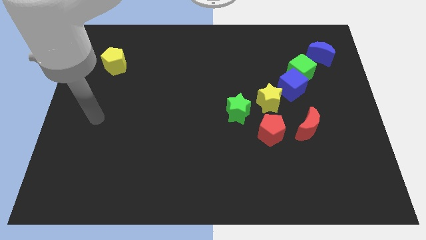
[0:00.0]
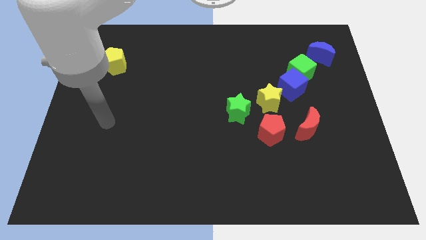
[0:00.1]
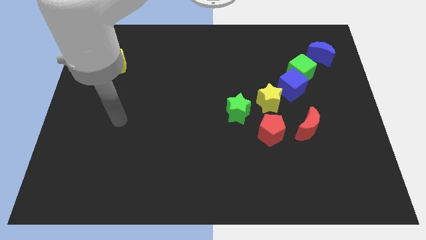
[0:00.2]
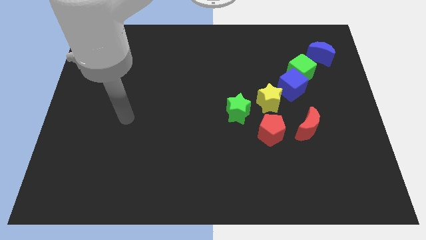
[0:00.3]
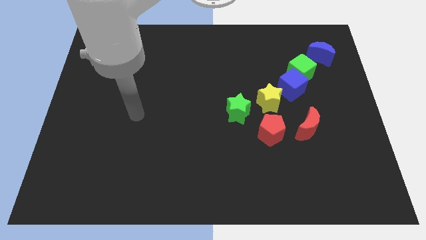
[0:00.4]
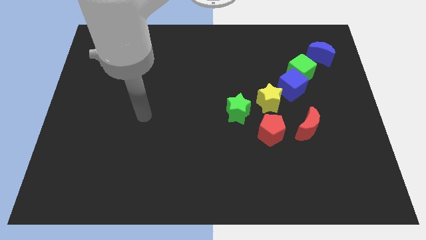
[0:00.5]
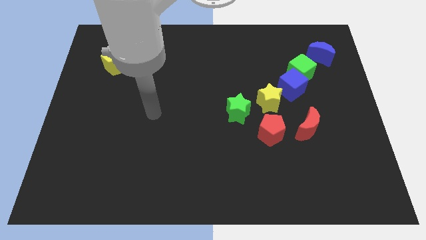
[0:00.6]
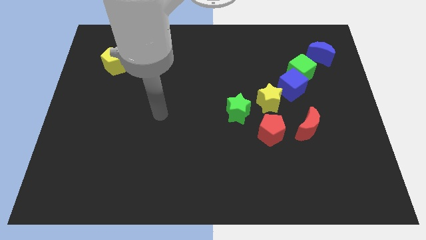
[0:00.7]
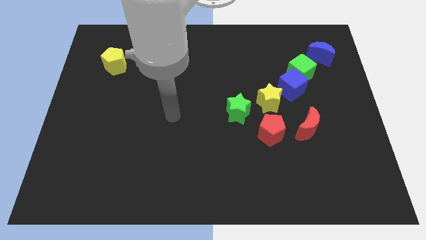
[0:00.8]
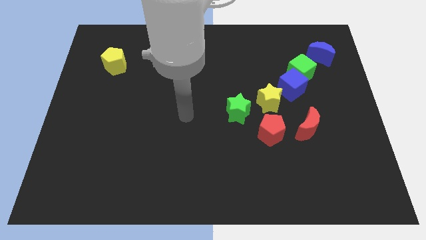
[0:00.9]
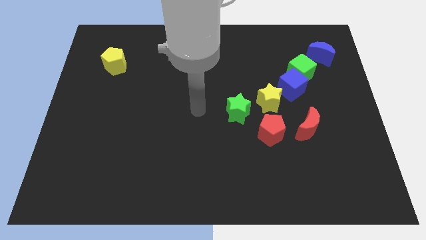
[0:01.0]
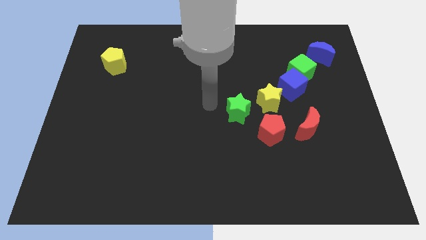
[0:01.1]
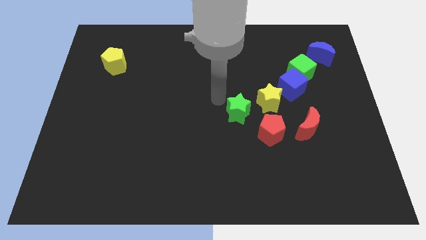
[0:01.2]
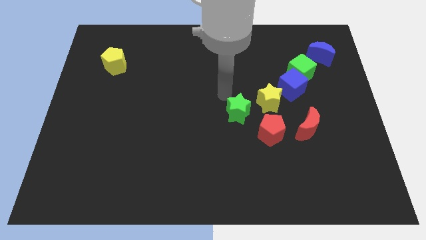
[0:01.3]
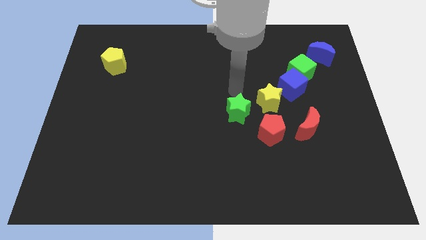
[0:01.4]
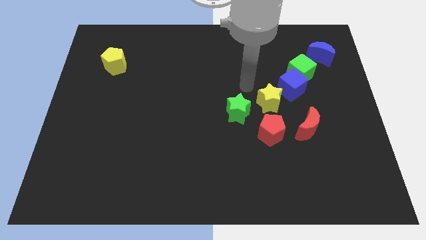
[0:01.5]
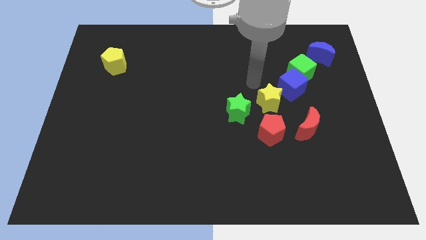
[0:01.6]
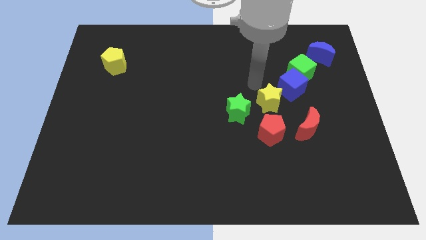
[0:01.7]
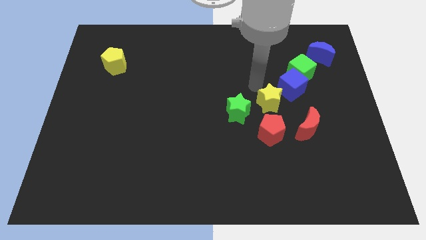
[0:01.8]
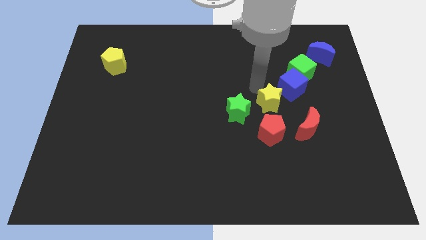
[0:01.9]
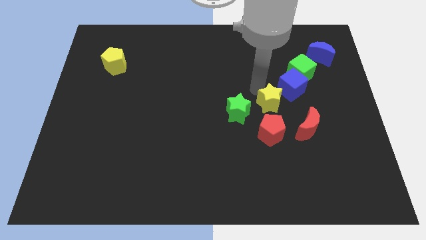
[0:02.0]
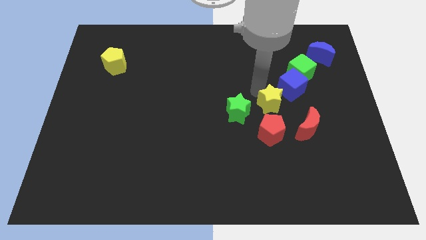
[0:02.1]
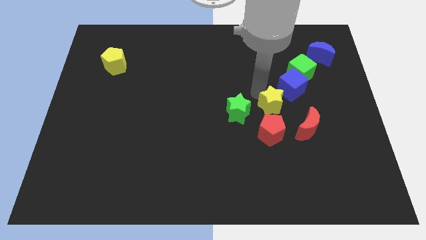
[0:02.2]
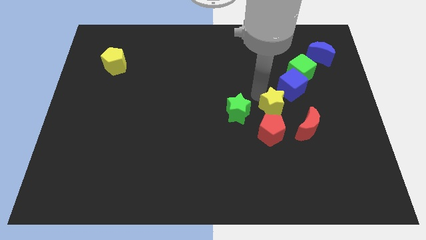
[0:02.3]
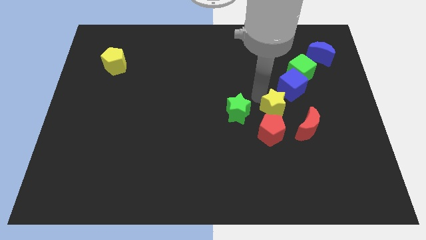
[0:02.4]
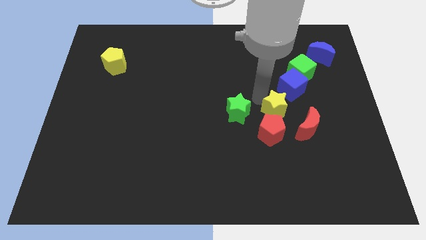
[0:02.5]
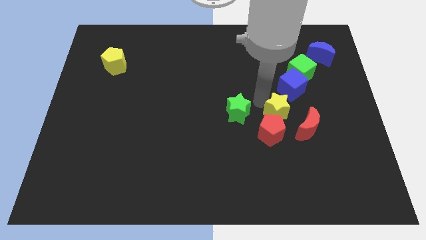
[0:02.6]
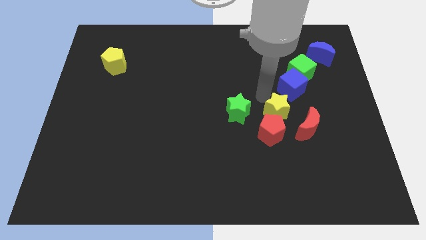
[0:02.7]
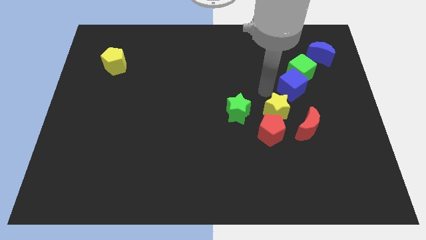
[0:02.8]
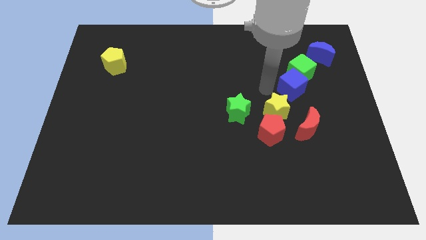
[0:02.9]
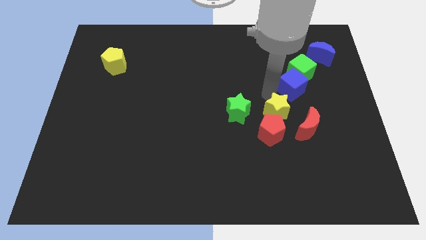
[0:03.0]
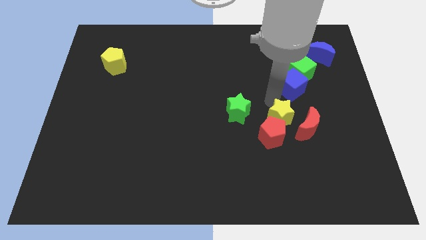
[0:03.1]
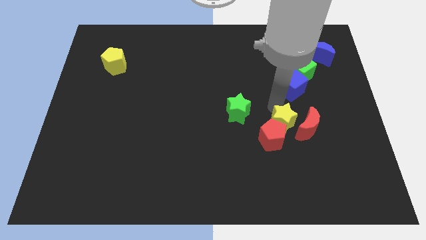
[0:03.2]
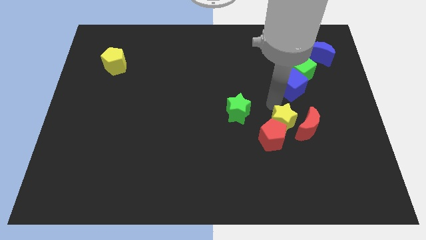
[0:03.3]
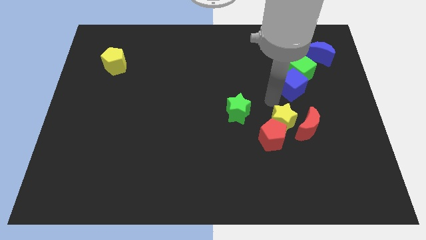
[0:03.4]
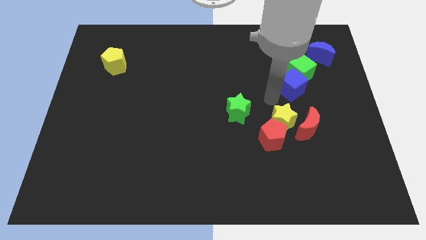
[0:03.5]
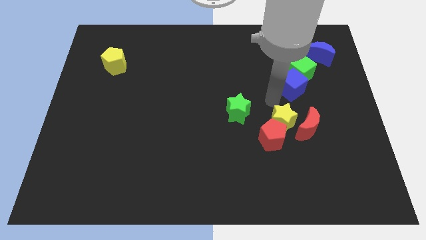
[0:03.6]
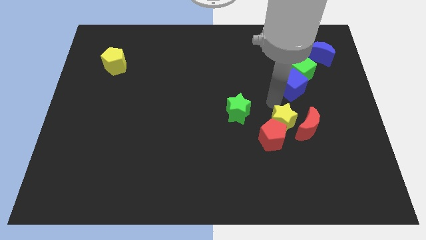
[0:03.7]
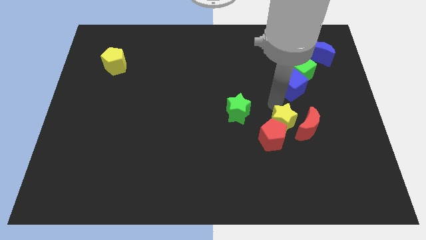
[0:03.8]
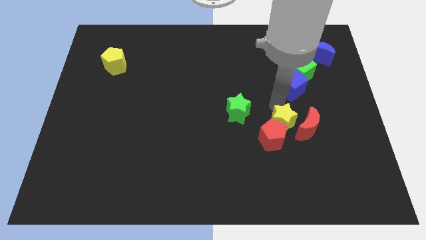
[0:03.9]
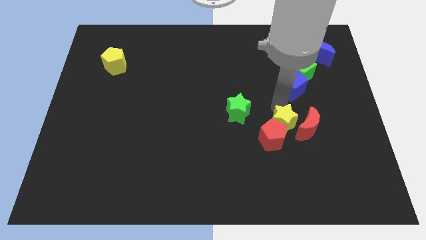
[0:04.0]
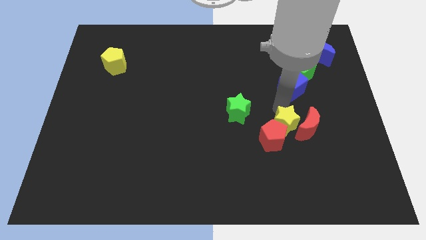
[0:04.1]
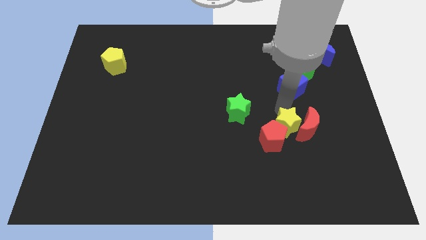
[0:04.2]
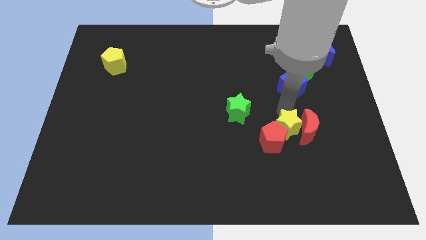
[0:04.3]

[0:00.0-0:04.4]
slightly push the yellow star downwards

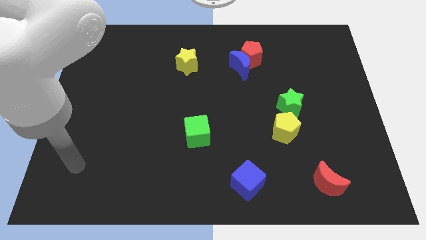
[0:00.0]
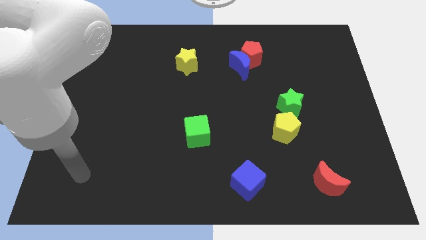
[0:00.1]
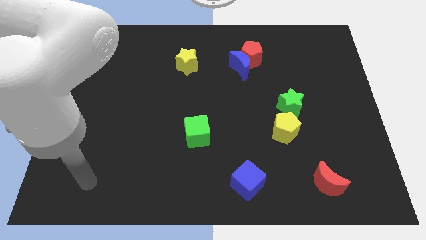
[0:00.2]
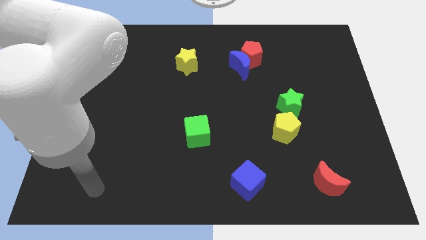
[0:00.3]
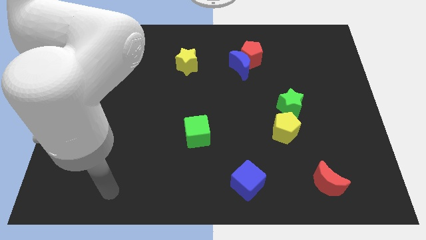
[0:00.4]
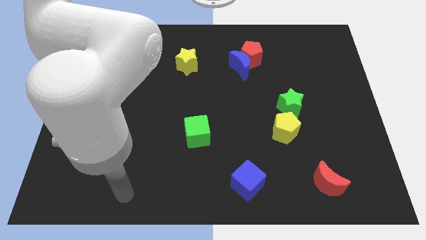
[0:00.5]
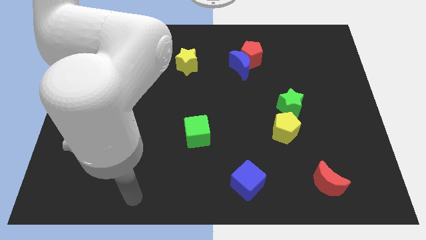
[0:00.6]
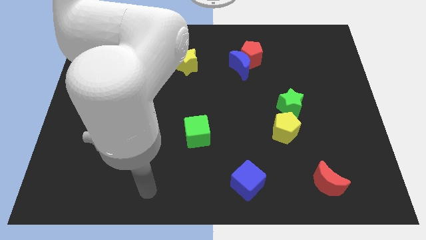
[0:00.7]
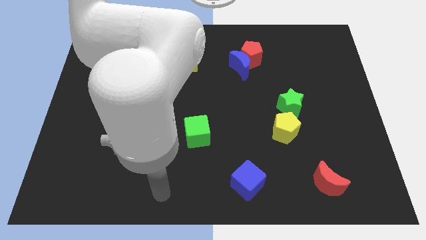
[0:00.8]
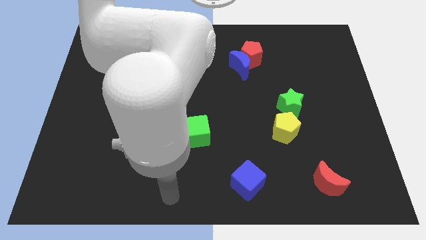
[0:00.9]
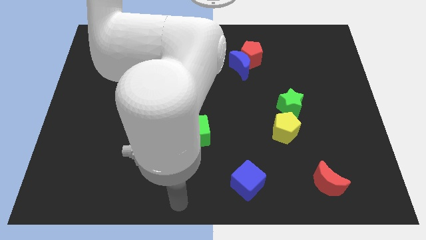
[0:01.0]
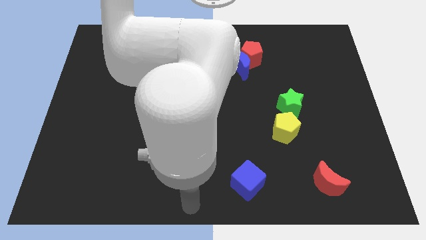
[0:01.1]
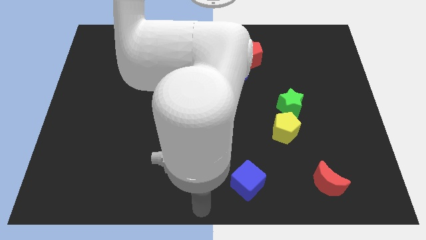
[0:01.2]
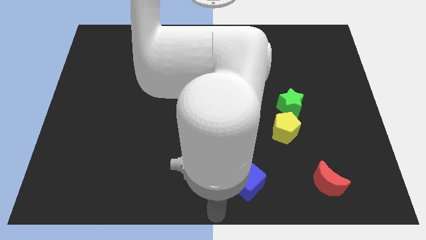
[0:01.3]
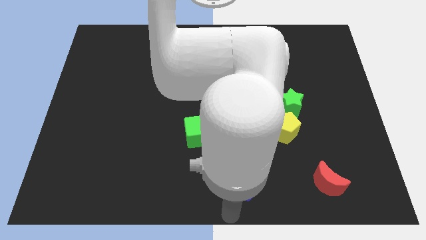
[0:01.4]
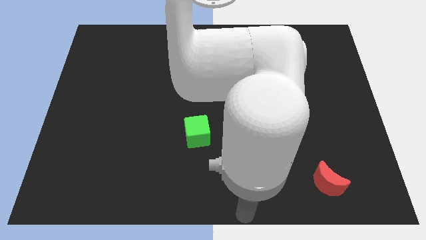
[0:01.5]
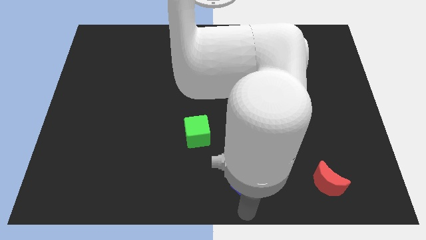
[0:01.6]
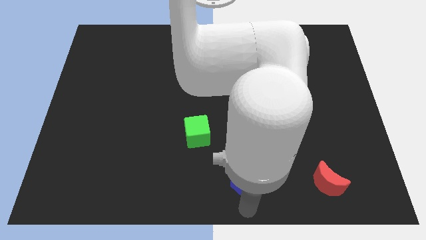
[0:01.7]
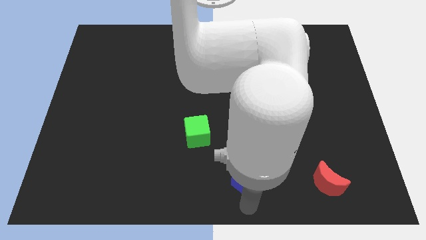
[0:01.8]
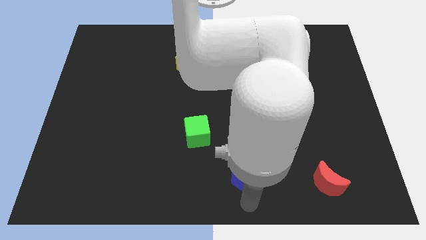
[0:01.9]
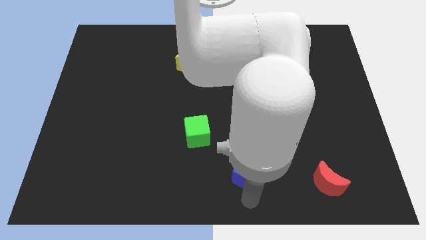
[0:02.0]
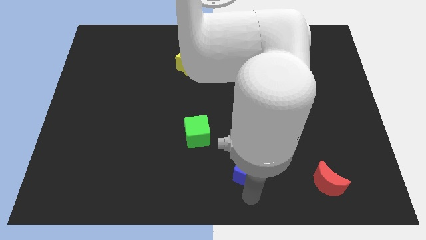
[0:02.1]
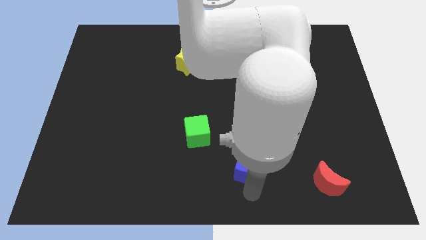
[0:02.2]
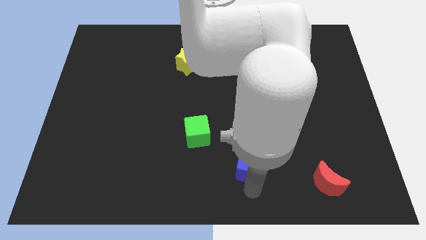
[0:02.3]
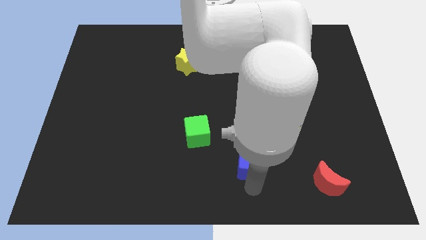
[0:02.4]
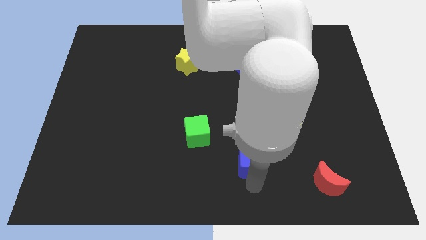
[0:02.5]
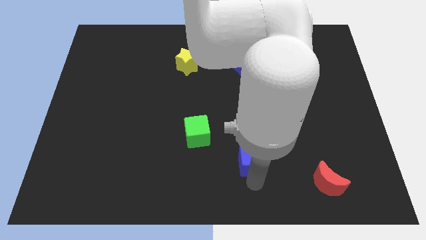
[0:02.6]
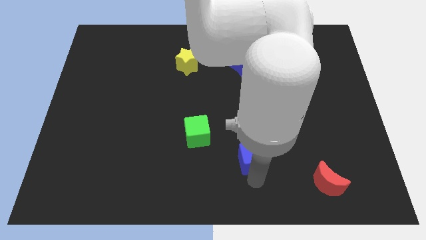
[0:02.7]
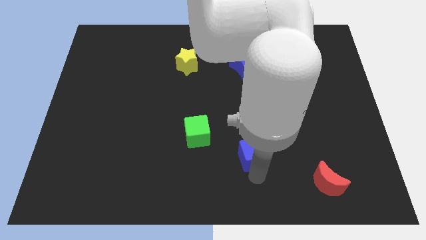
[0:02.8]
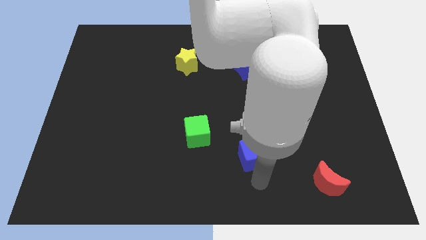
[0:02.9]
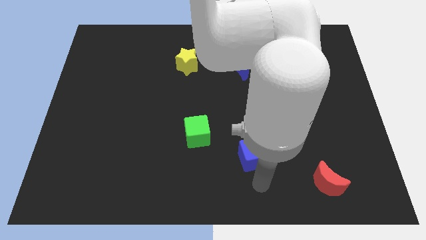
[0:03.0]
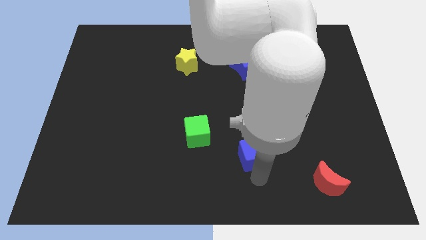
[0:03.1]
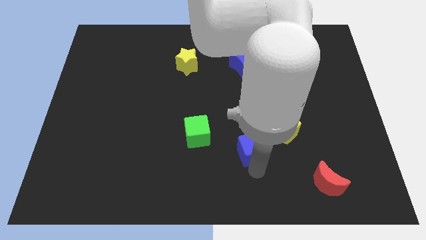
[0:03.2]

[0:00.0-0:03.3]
slightly push the blue cube upwards

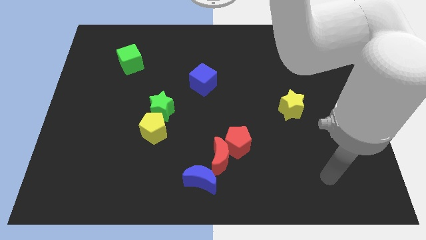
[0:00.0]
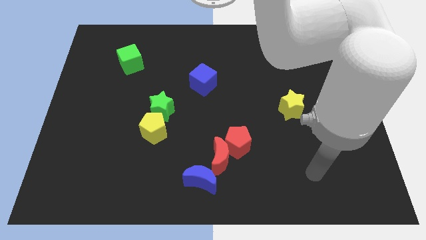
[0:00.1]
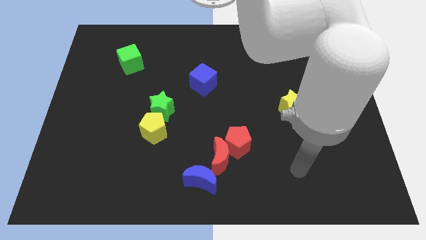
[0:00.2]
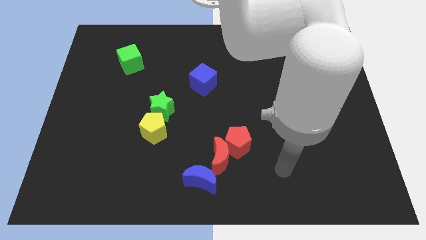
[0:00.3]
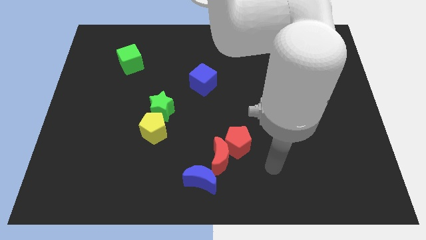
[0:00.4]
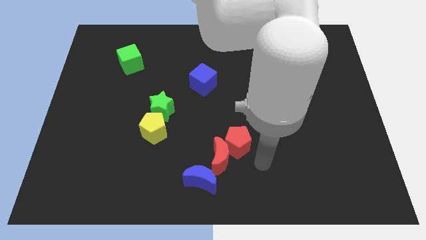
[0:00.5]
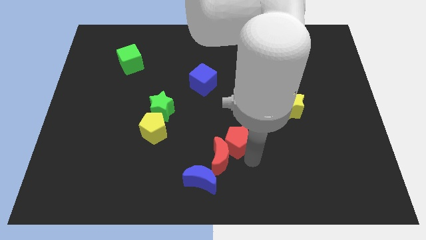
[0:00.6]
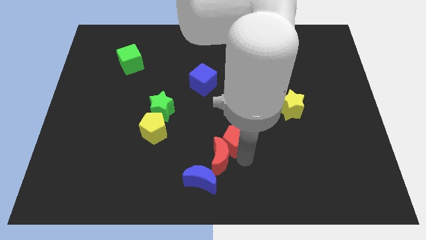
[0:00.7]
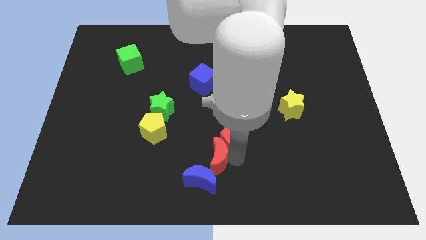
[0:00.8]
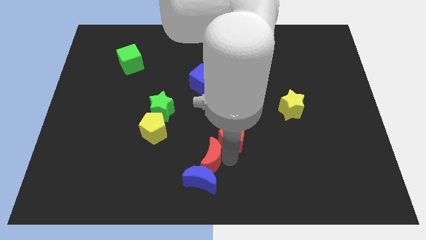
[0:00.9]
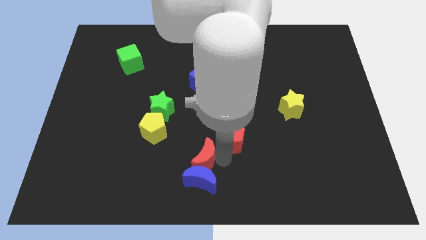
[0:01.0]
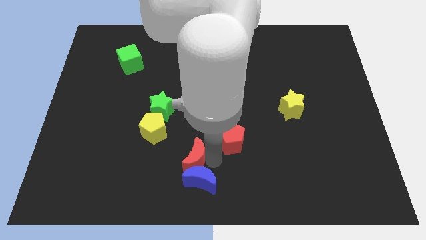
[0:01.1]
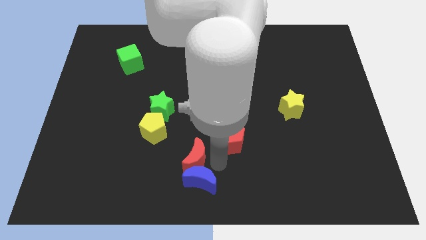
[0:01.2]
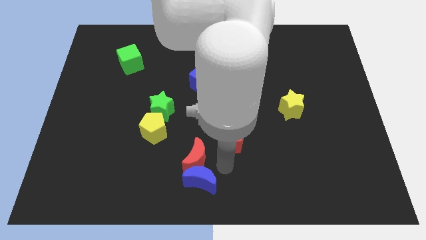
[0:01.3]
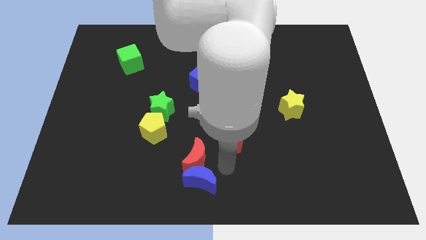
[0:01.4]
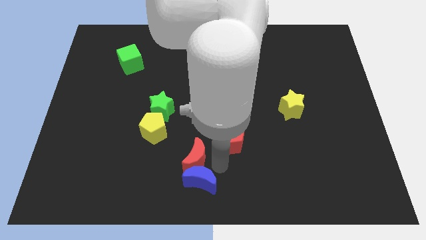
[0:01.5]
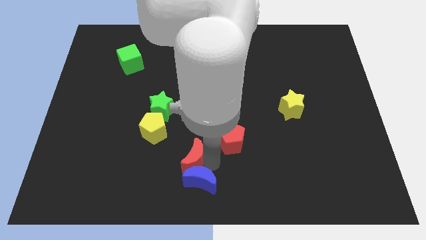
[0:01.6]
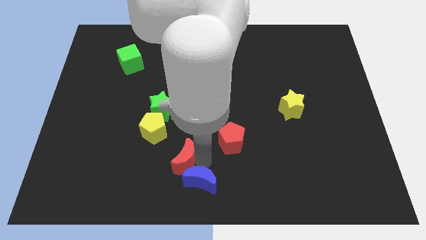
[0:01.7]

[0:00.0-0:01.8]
slide the red moon left a bit
